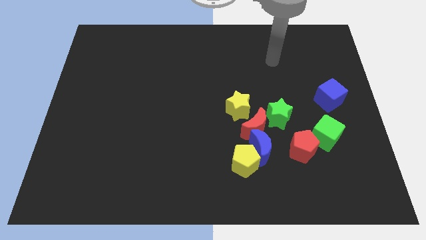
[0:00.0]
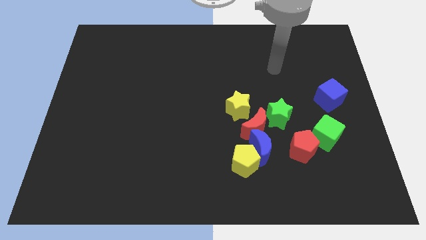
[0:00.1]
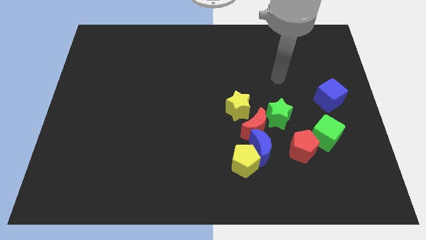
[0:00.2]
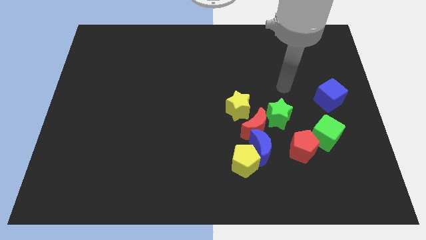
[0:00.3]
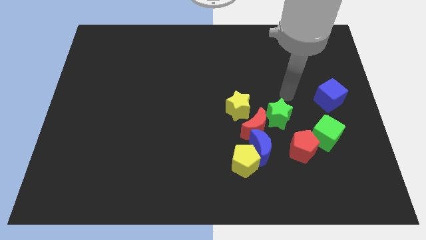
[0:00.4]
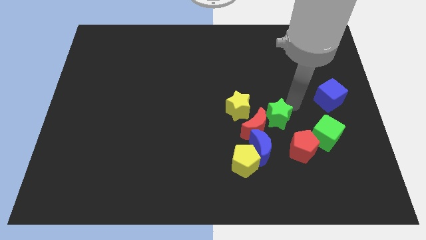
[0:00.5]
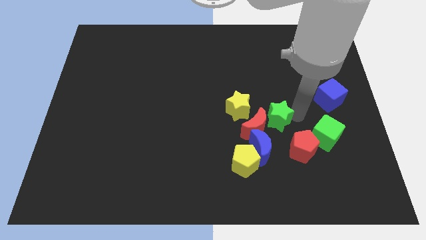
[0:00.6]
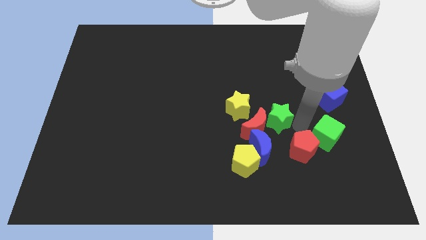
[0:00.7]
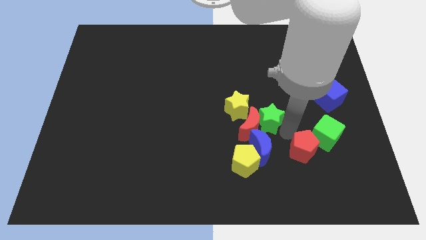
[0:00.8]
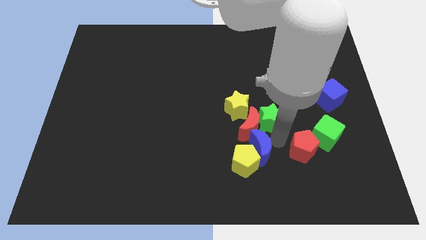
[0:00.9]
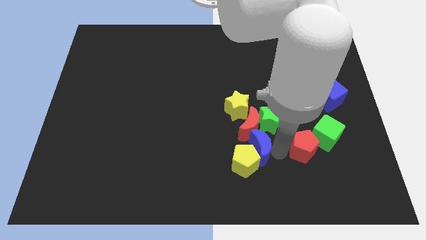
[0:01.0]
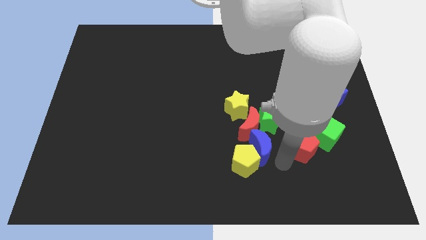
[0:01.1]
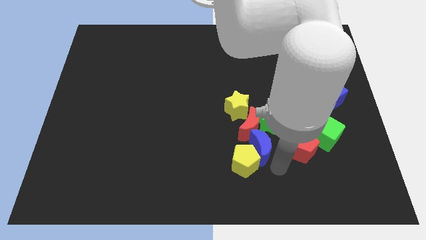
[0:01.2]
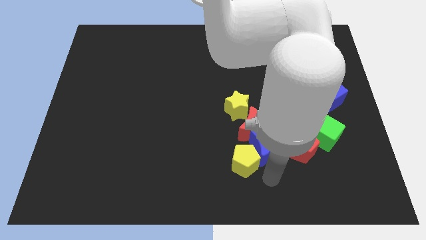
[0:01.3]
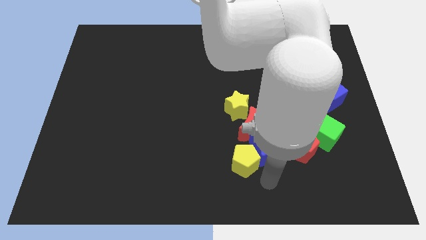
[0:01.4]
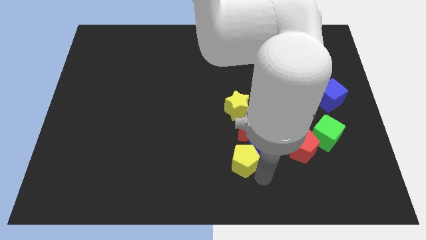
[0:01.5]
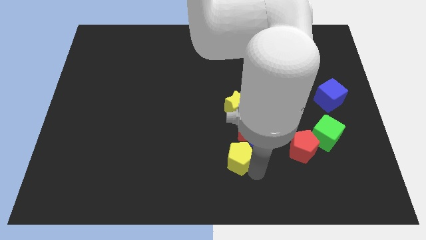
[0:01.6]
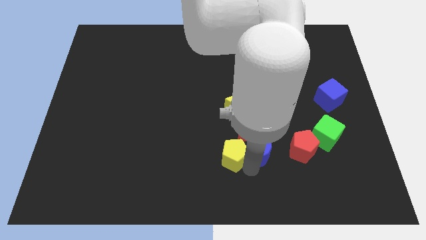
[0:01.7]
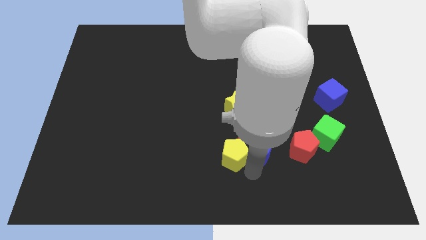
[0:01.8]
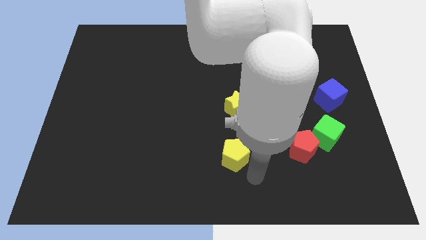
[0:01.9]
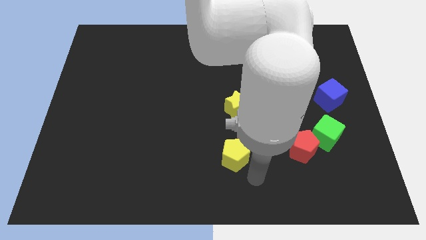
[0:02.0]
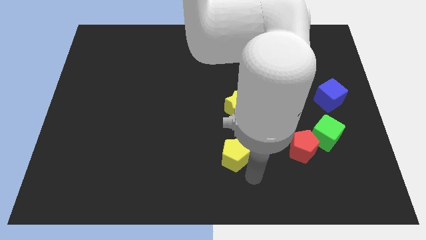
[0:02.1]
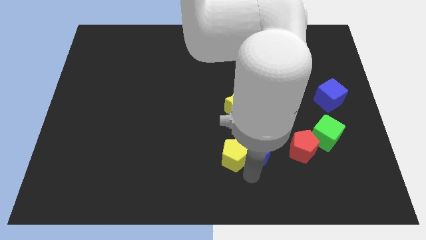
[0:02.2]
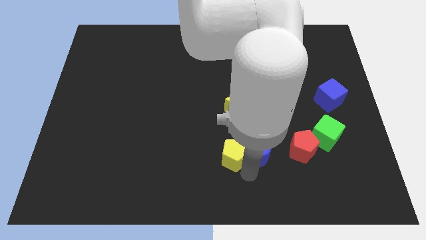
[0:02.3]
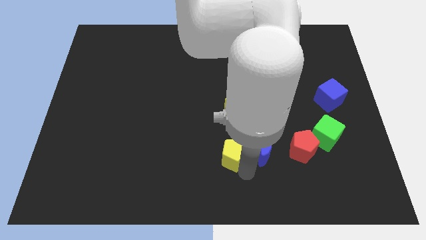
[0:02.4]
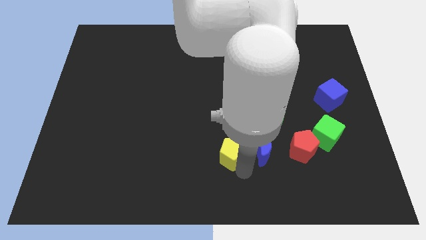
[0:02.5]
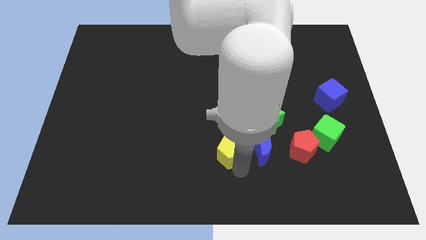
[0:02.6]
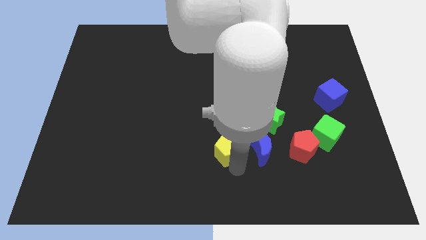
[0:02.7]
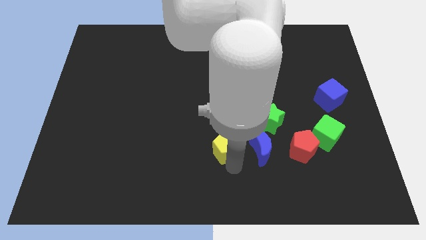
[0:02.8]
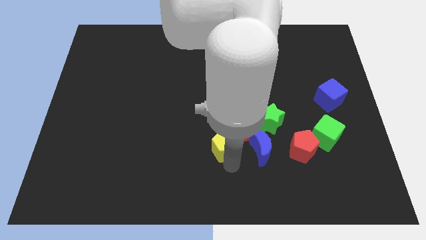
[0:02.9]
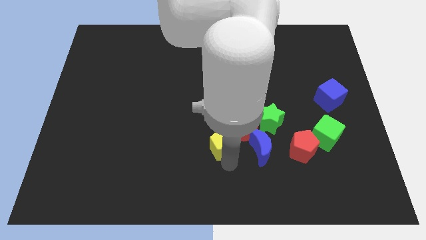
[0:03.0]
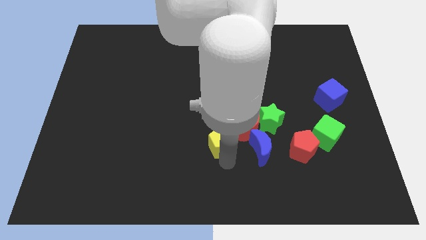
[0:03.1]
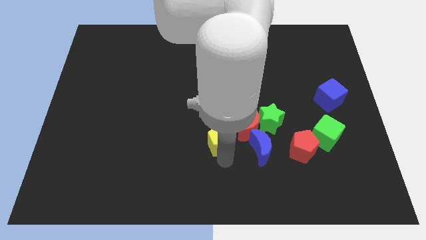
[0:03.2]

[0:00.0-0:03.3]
push the yellow pentagon a little bit upwards and then to the left

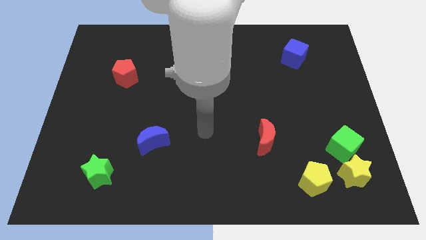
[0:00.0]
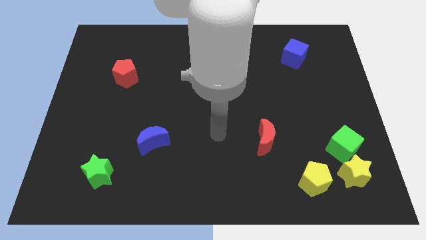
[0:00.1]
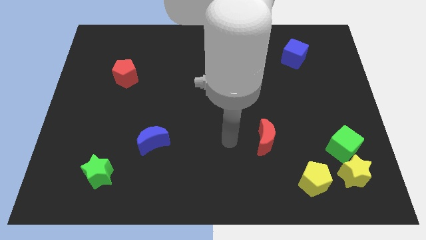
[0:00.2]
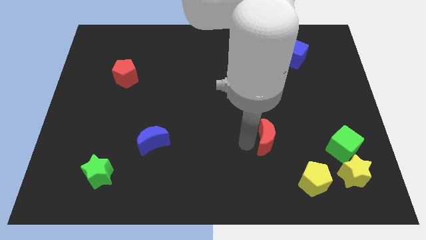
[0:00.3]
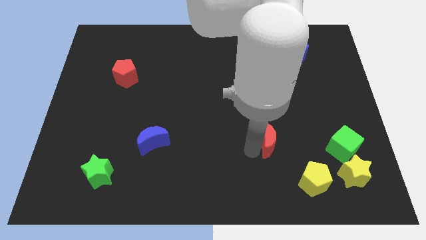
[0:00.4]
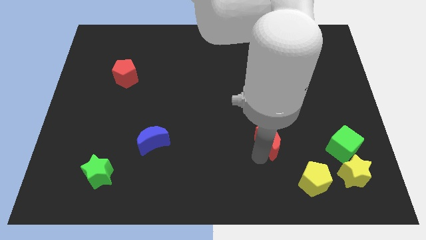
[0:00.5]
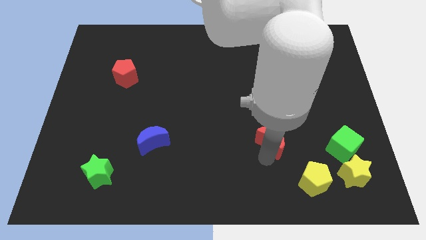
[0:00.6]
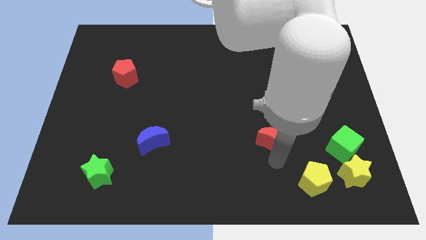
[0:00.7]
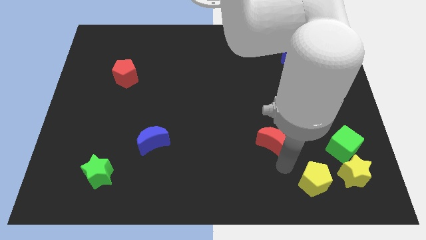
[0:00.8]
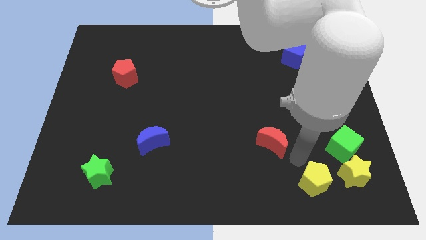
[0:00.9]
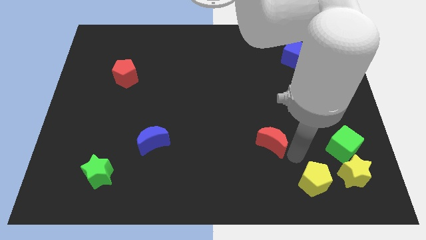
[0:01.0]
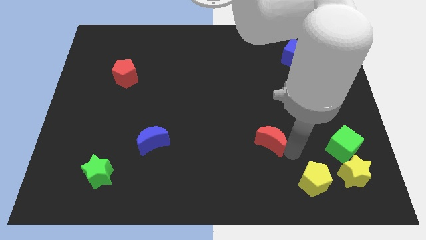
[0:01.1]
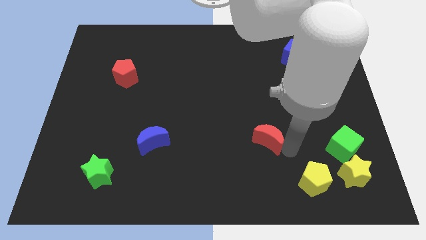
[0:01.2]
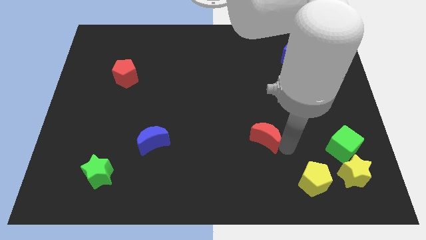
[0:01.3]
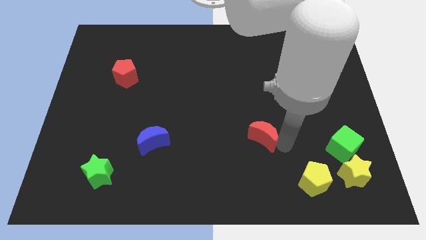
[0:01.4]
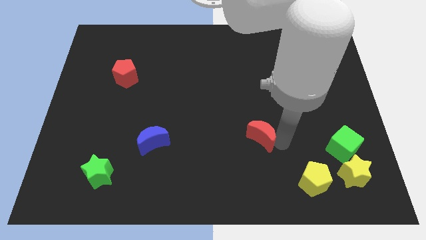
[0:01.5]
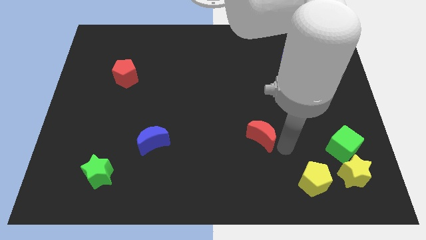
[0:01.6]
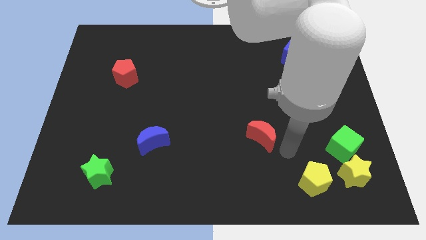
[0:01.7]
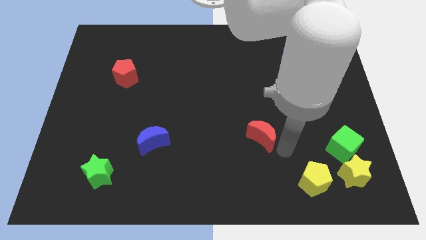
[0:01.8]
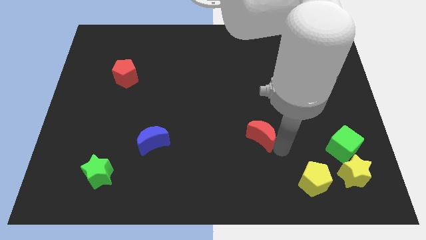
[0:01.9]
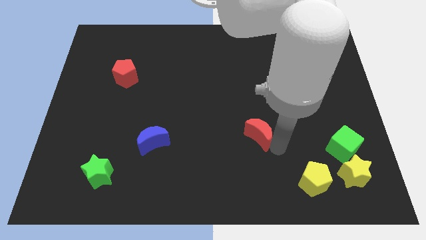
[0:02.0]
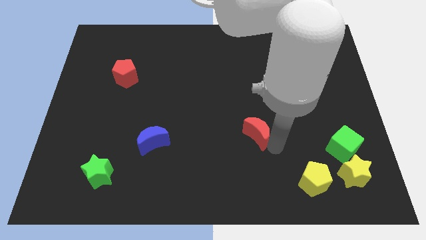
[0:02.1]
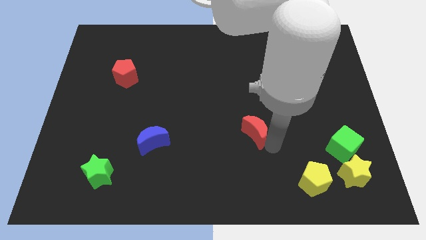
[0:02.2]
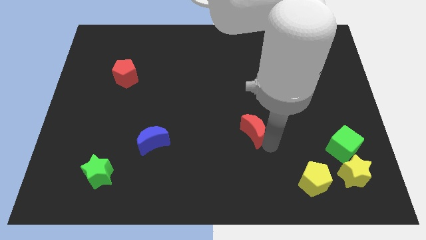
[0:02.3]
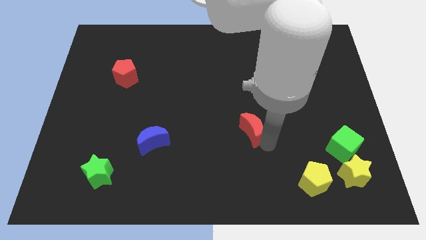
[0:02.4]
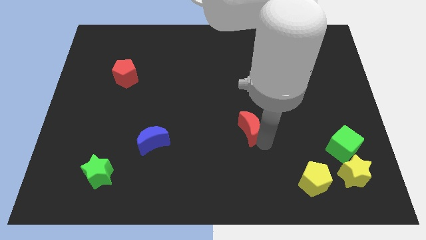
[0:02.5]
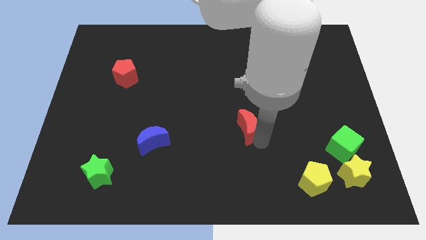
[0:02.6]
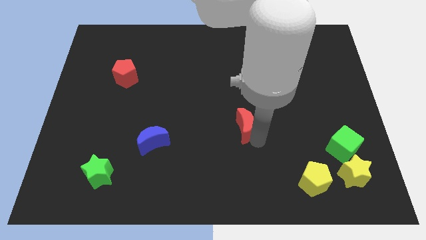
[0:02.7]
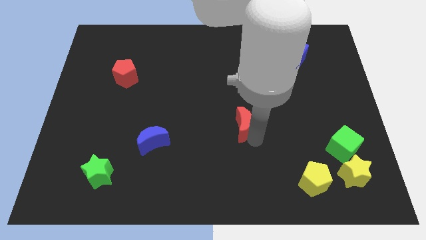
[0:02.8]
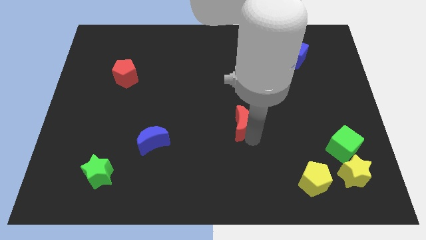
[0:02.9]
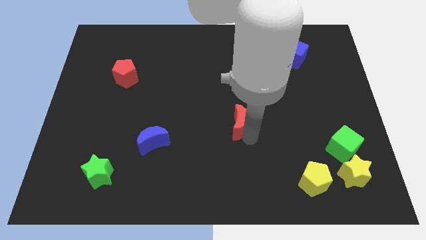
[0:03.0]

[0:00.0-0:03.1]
slightly move the red moon upwards and then to the left

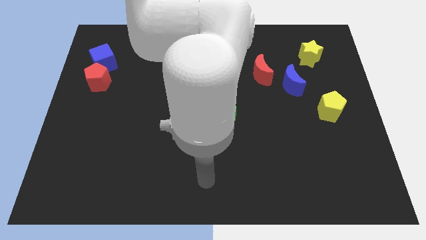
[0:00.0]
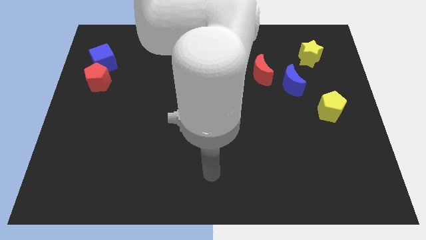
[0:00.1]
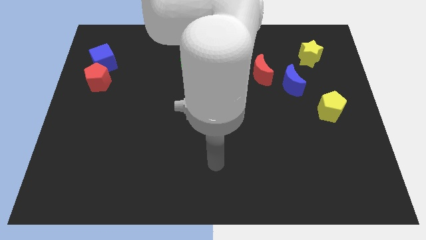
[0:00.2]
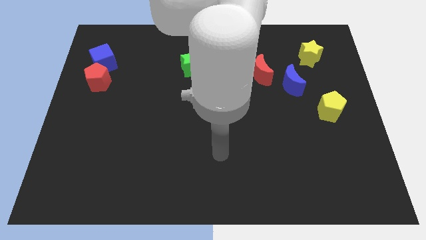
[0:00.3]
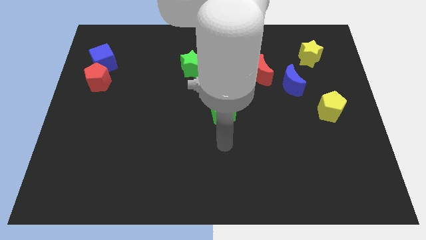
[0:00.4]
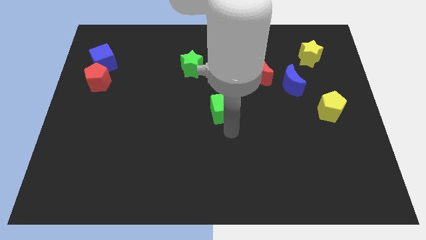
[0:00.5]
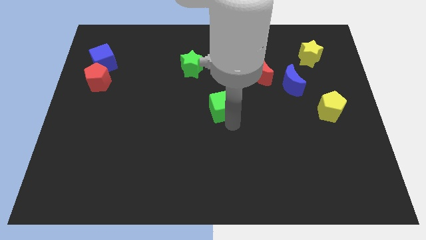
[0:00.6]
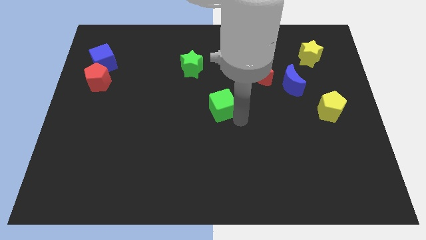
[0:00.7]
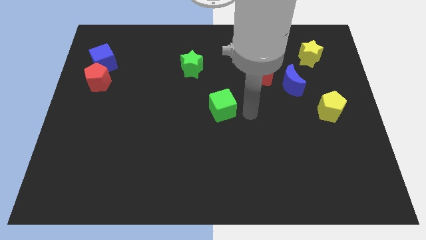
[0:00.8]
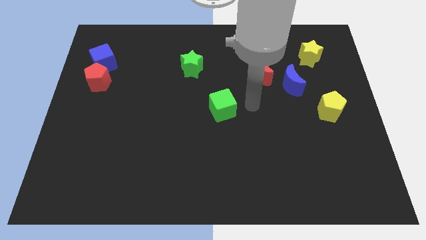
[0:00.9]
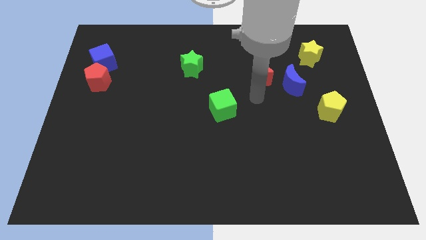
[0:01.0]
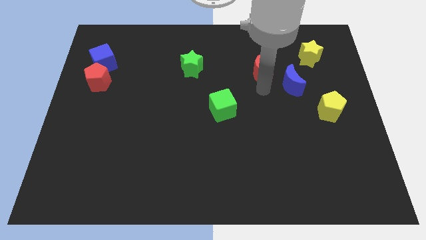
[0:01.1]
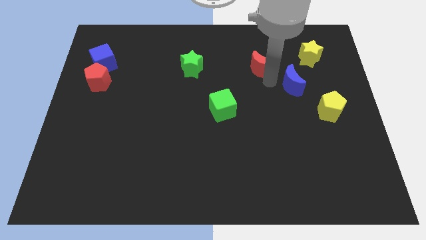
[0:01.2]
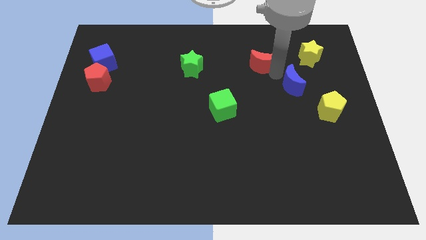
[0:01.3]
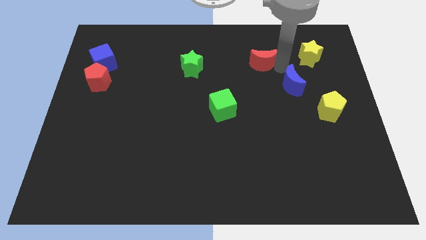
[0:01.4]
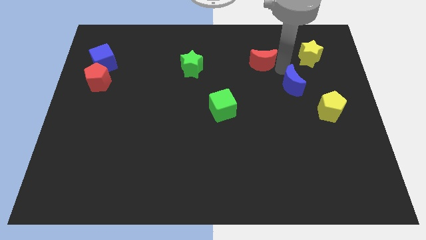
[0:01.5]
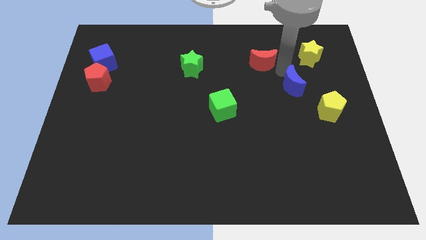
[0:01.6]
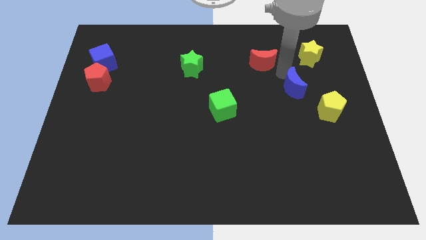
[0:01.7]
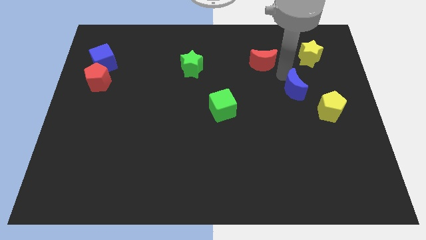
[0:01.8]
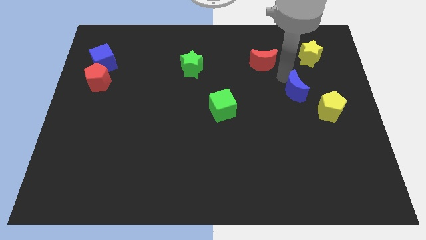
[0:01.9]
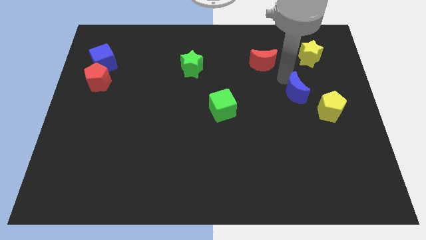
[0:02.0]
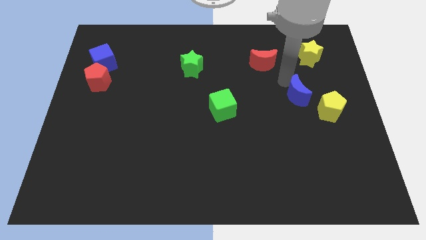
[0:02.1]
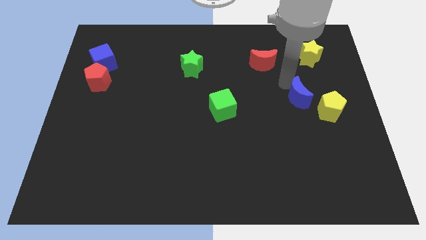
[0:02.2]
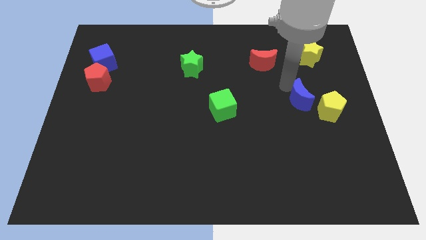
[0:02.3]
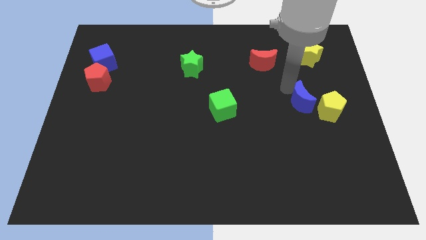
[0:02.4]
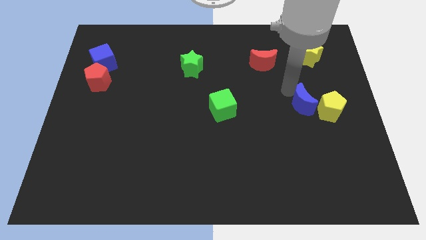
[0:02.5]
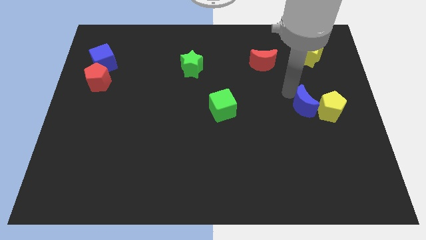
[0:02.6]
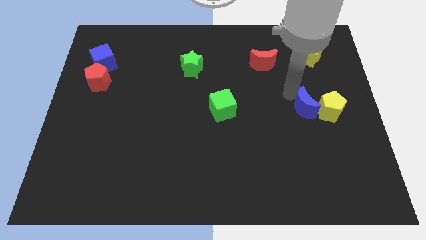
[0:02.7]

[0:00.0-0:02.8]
push the blue moon downwards a little bit
